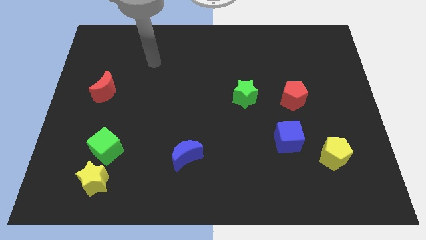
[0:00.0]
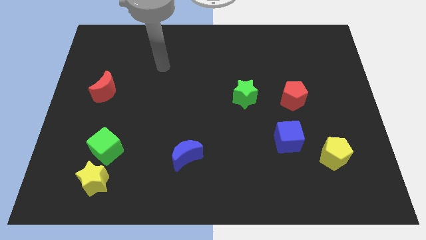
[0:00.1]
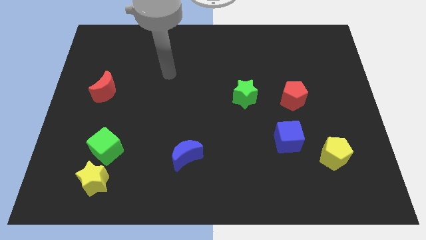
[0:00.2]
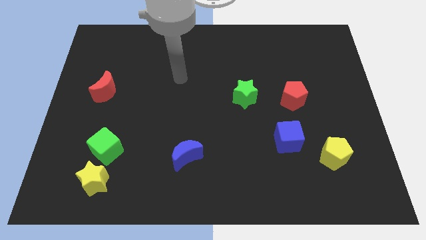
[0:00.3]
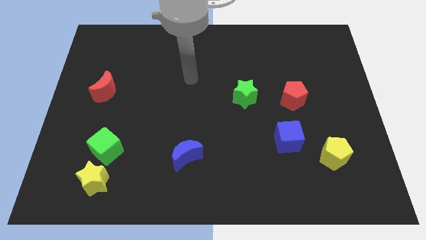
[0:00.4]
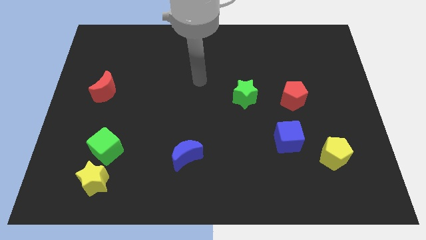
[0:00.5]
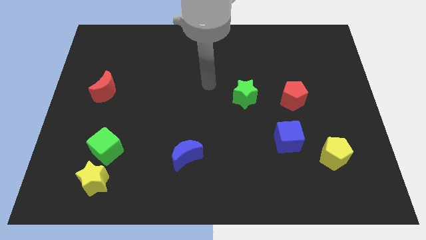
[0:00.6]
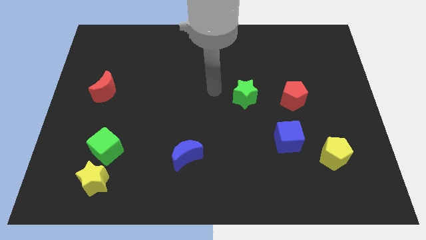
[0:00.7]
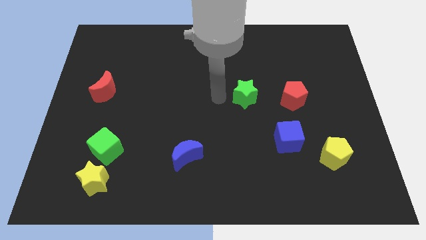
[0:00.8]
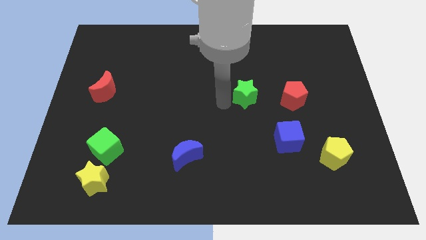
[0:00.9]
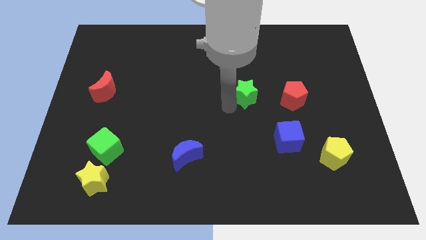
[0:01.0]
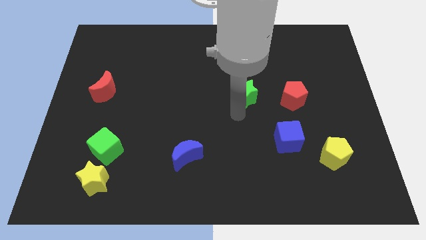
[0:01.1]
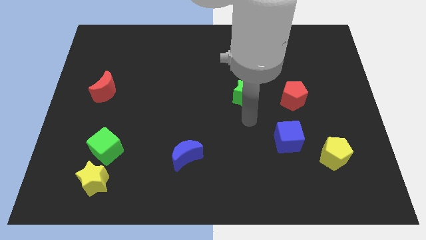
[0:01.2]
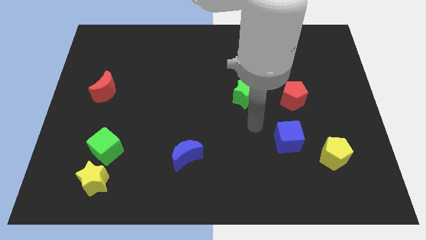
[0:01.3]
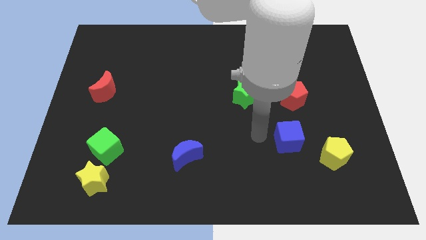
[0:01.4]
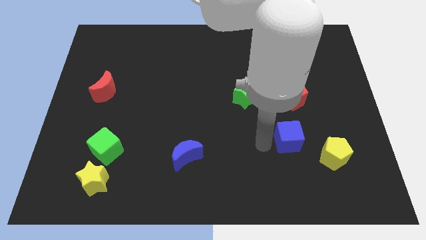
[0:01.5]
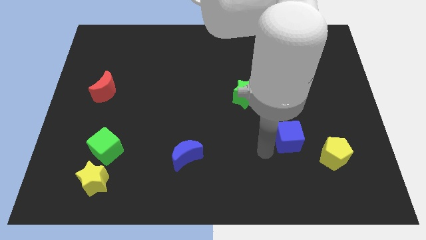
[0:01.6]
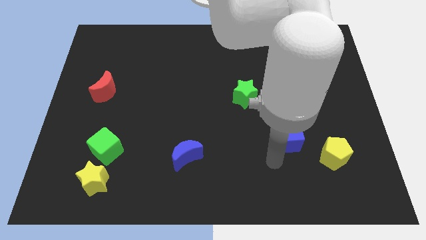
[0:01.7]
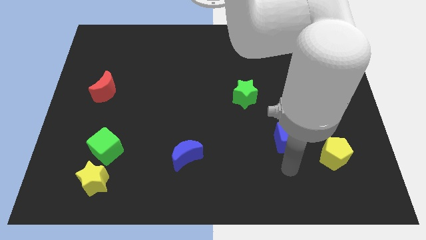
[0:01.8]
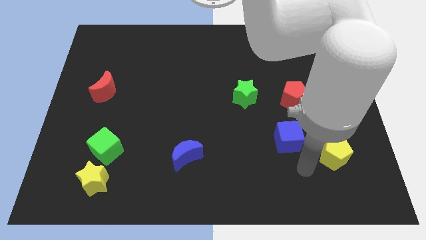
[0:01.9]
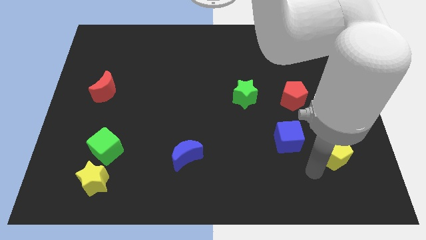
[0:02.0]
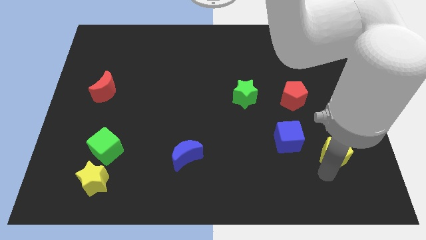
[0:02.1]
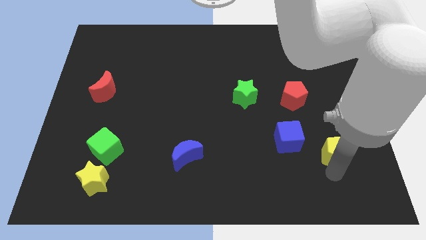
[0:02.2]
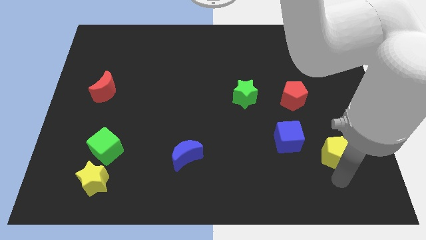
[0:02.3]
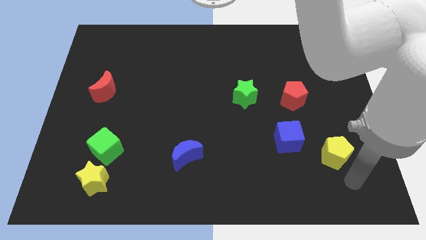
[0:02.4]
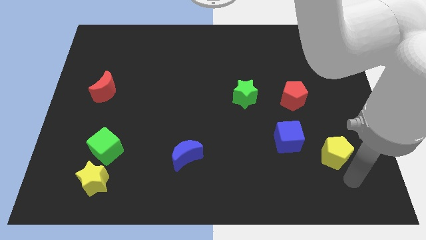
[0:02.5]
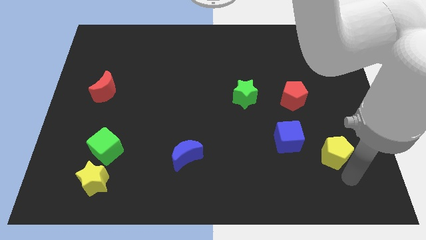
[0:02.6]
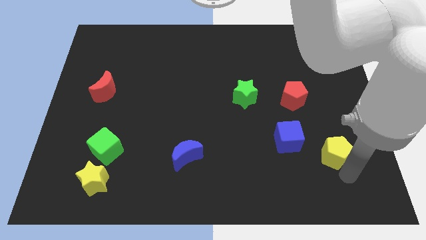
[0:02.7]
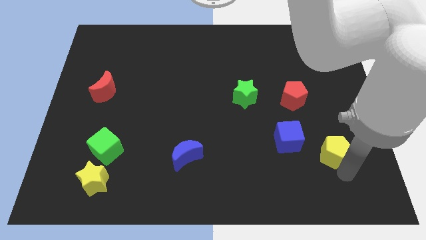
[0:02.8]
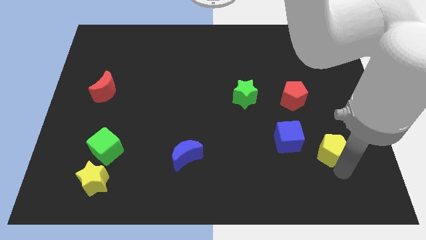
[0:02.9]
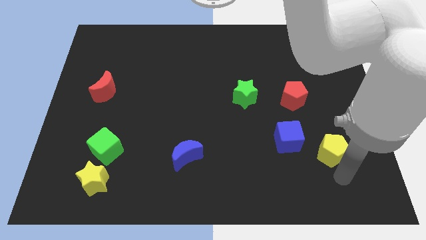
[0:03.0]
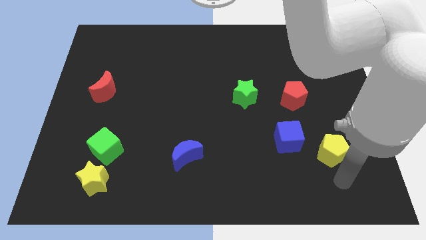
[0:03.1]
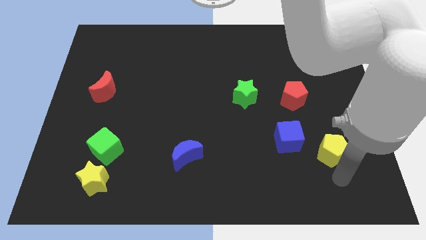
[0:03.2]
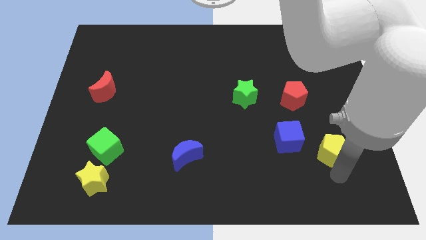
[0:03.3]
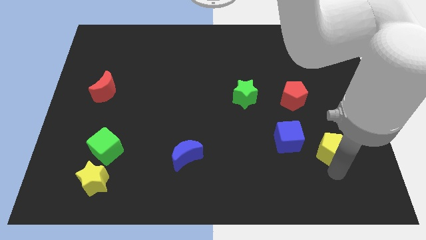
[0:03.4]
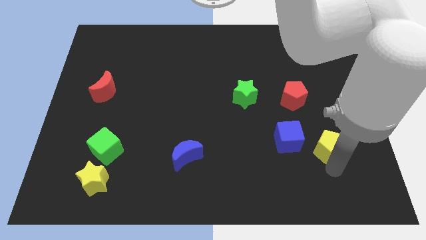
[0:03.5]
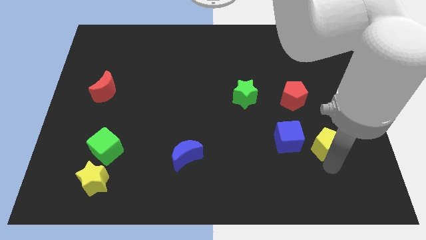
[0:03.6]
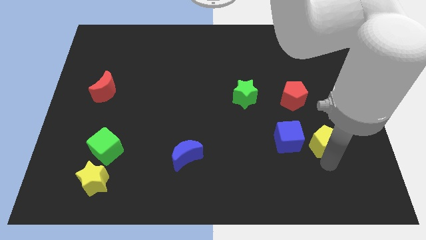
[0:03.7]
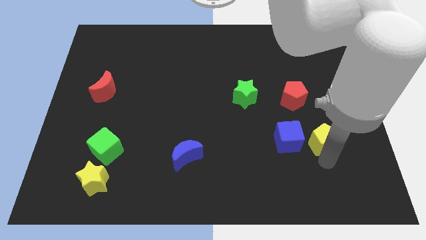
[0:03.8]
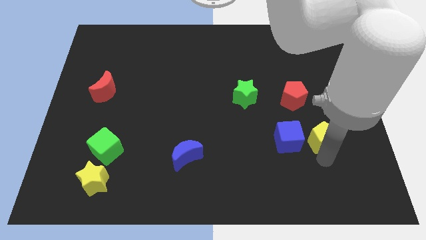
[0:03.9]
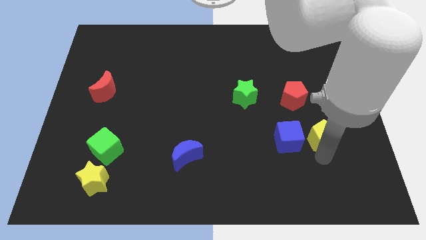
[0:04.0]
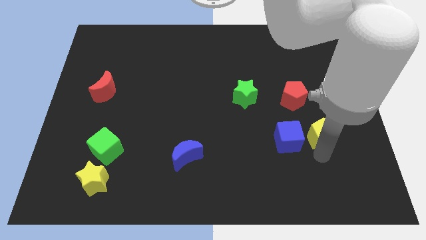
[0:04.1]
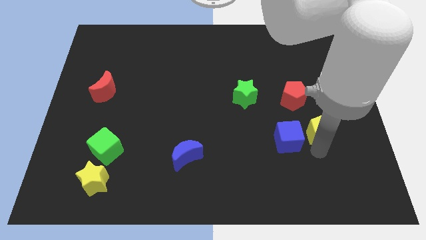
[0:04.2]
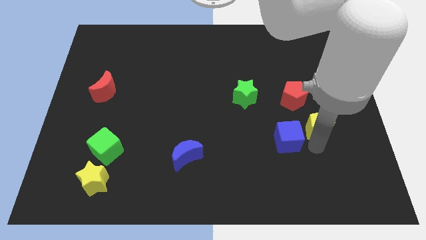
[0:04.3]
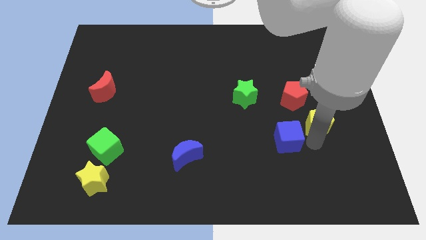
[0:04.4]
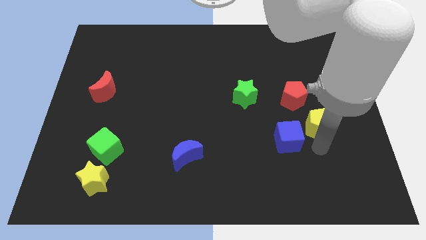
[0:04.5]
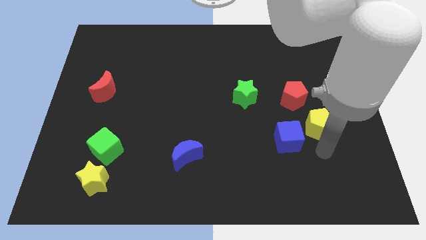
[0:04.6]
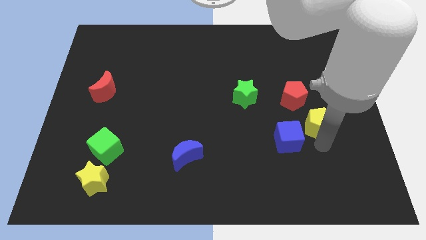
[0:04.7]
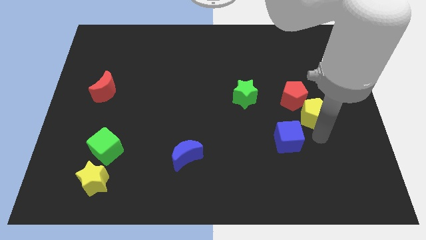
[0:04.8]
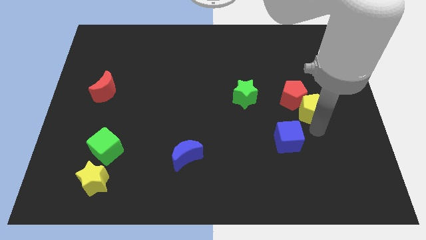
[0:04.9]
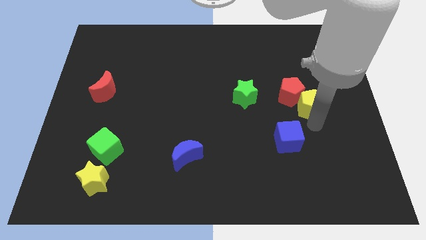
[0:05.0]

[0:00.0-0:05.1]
slide the yellow pentagon right of the green star

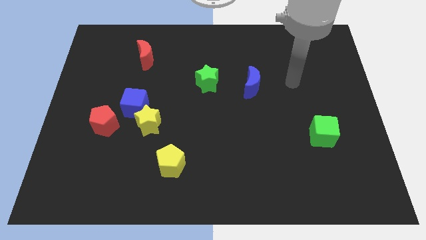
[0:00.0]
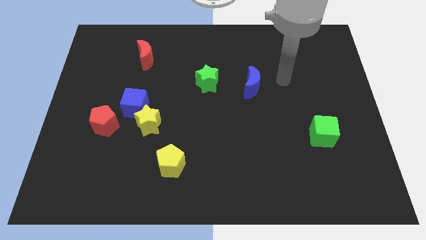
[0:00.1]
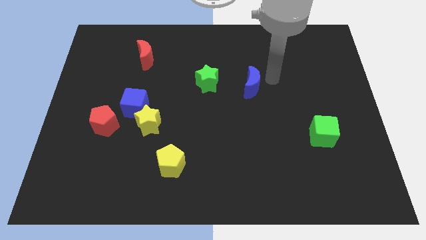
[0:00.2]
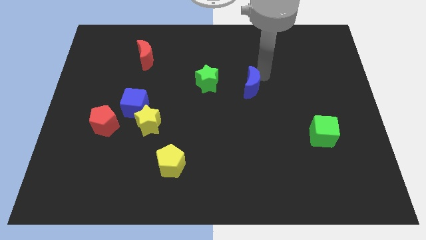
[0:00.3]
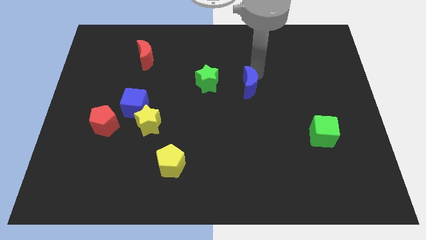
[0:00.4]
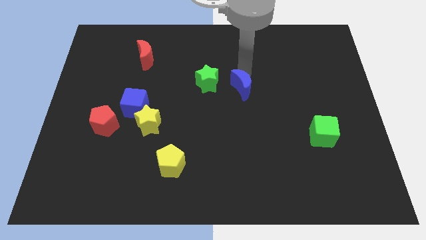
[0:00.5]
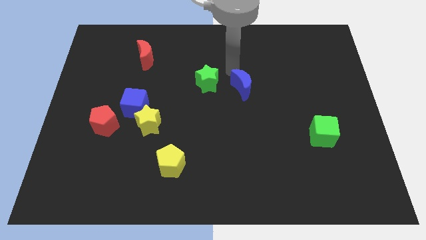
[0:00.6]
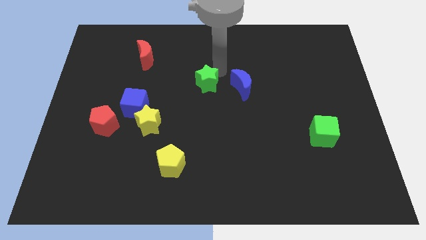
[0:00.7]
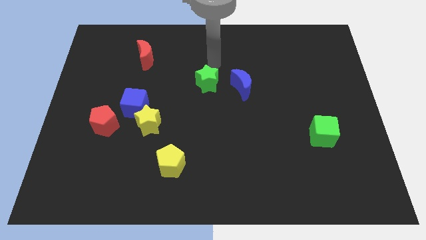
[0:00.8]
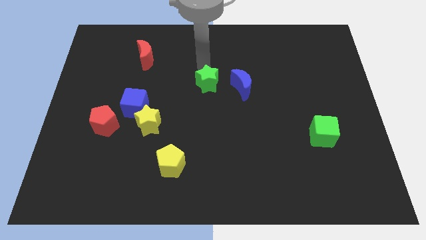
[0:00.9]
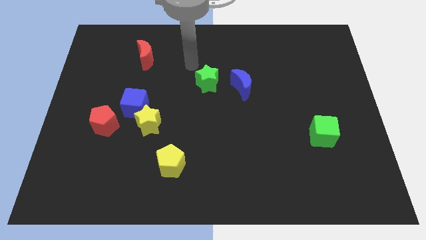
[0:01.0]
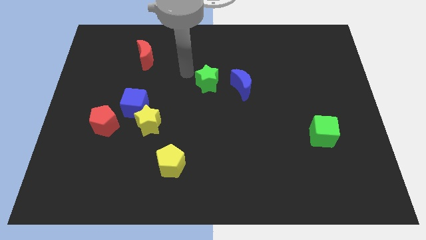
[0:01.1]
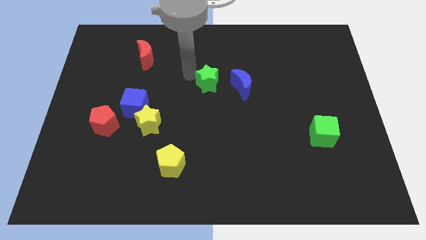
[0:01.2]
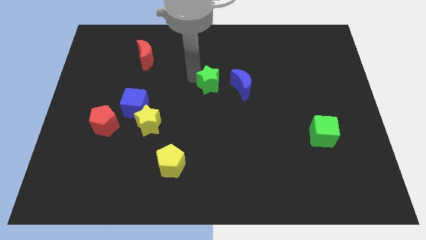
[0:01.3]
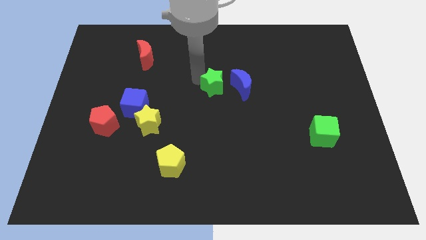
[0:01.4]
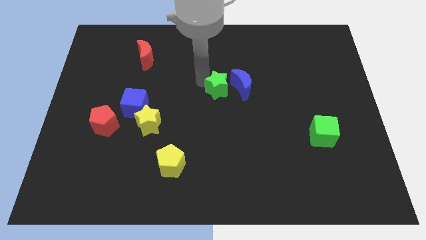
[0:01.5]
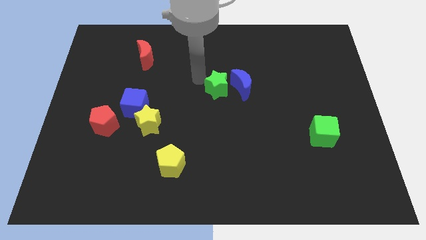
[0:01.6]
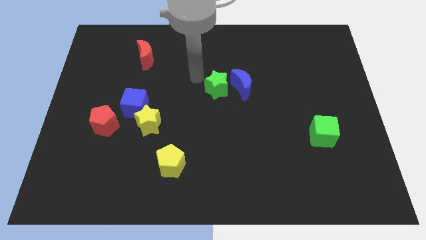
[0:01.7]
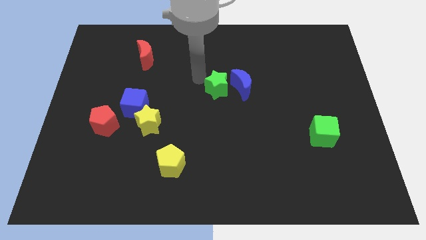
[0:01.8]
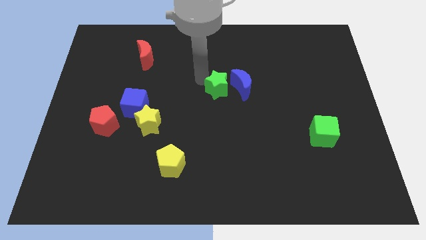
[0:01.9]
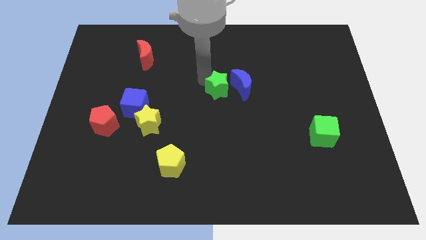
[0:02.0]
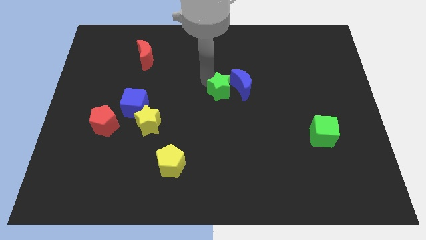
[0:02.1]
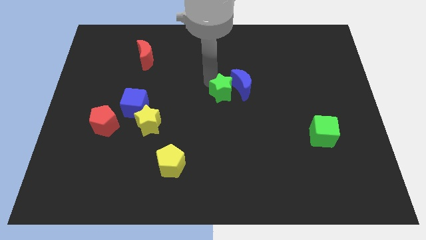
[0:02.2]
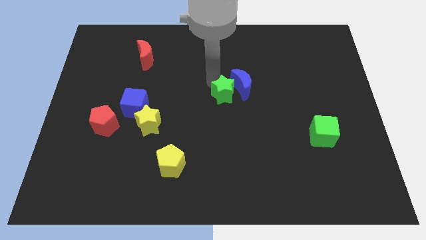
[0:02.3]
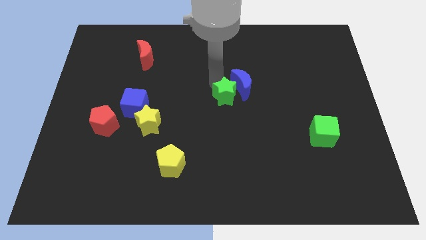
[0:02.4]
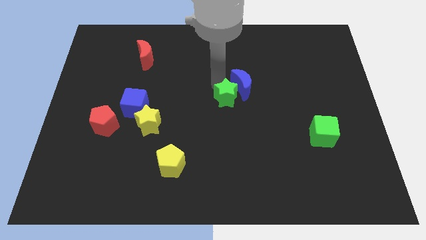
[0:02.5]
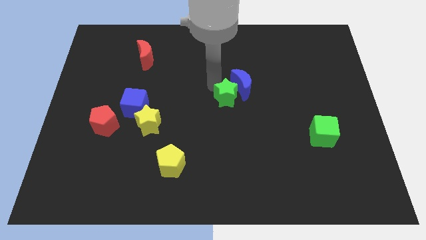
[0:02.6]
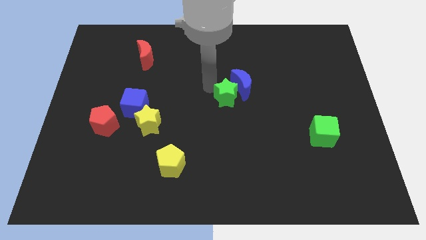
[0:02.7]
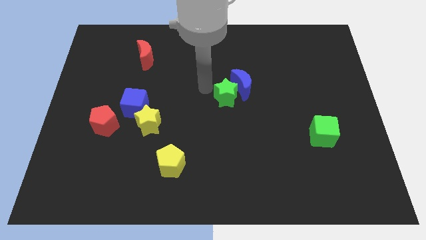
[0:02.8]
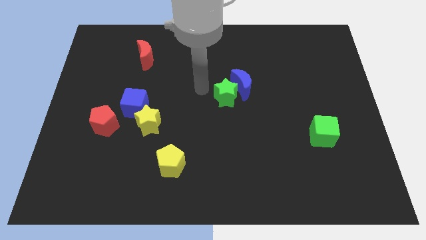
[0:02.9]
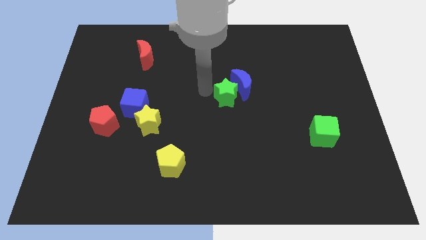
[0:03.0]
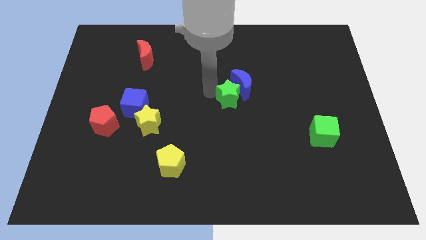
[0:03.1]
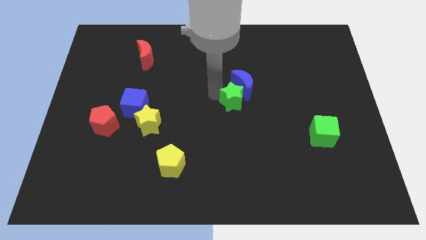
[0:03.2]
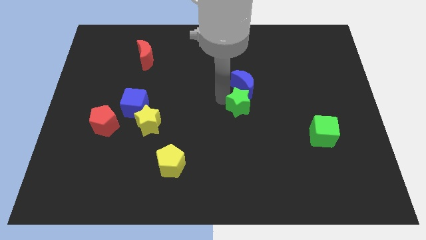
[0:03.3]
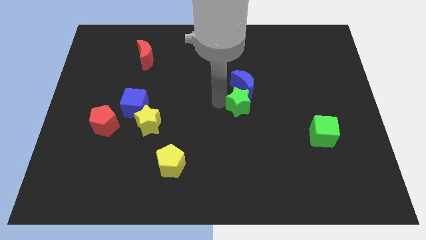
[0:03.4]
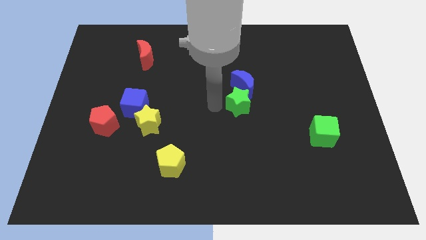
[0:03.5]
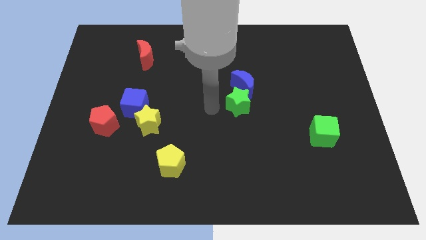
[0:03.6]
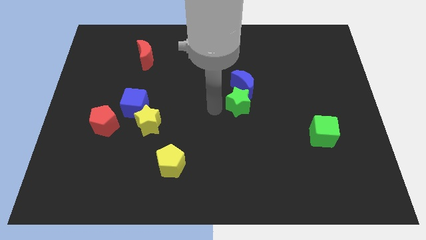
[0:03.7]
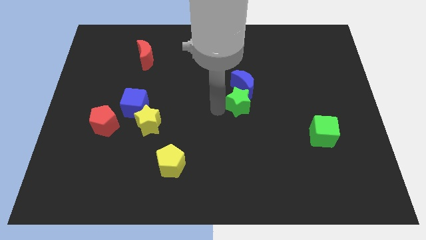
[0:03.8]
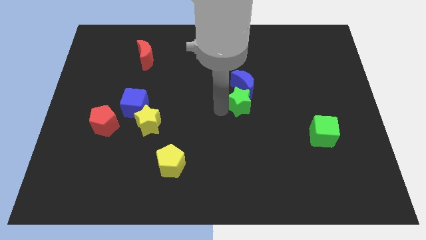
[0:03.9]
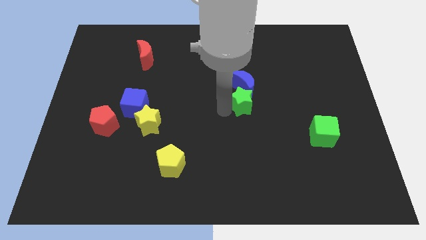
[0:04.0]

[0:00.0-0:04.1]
push the green star to the bottom right side of the blue moon
